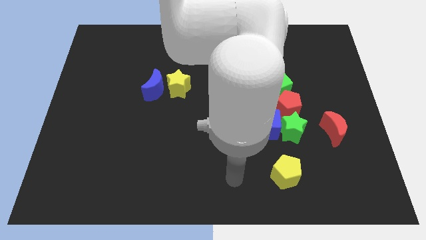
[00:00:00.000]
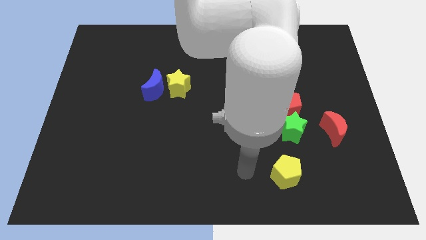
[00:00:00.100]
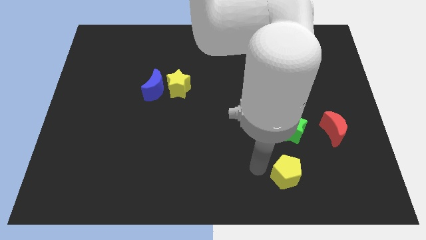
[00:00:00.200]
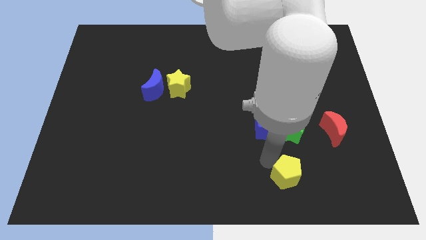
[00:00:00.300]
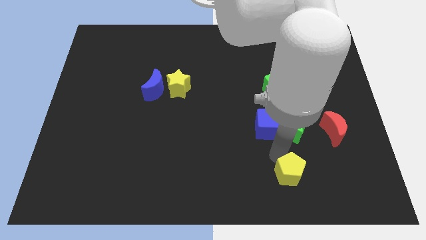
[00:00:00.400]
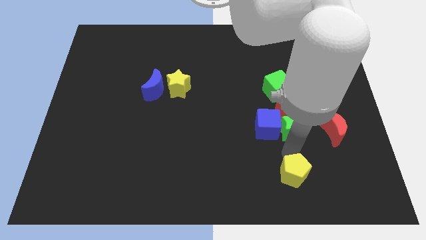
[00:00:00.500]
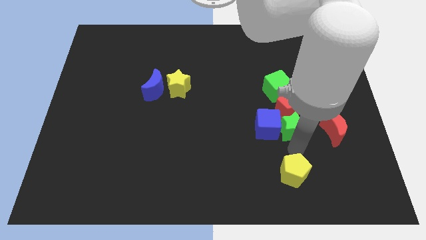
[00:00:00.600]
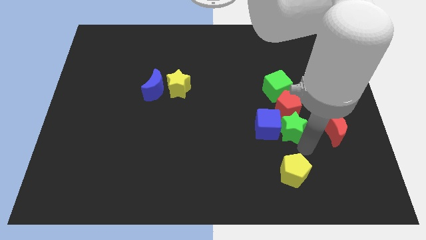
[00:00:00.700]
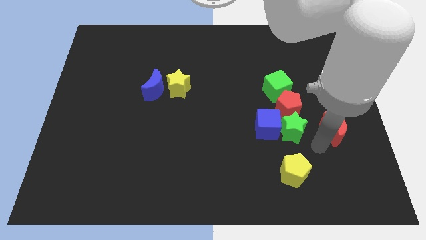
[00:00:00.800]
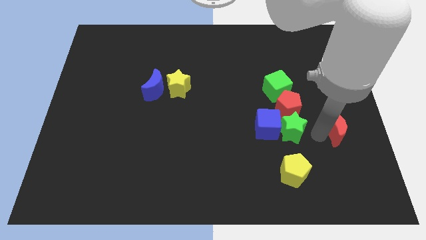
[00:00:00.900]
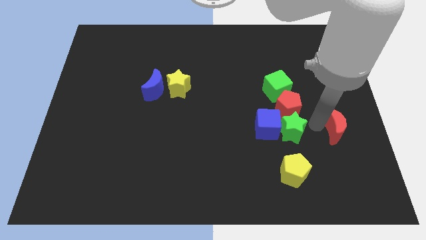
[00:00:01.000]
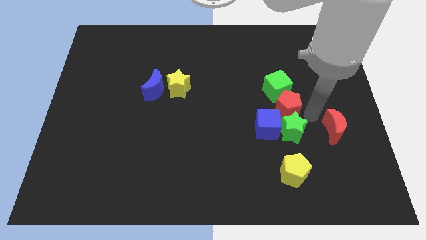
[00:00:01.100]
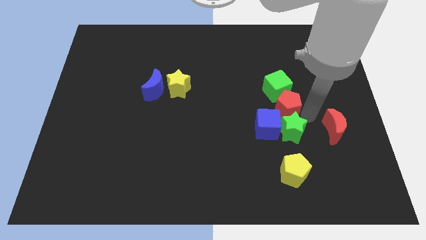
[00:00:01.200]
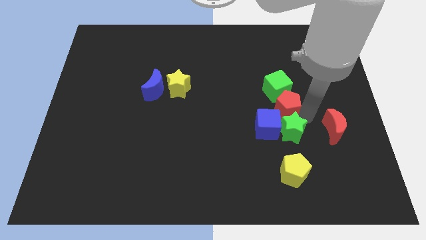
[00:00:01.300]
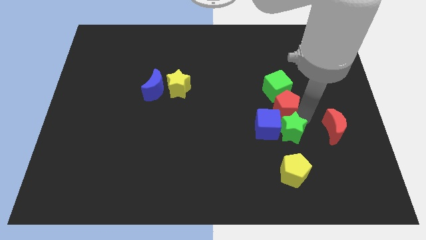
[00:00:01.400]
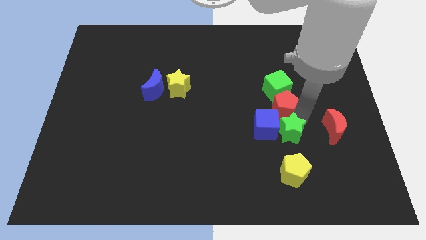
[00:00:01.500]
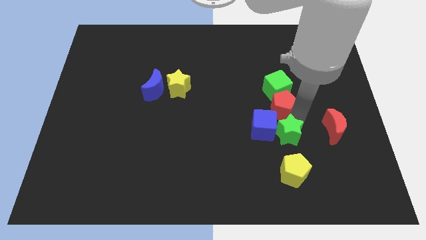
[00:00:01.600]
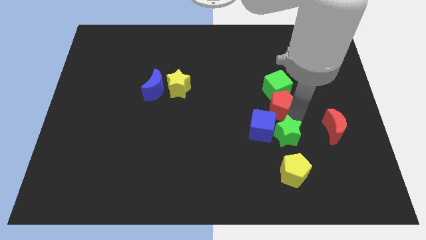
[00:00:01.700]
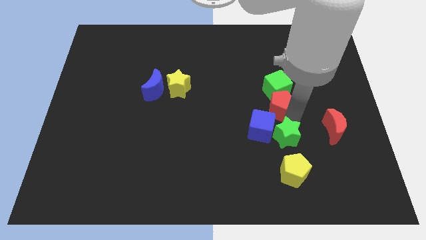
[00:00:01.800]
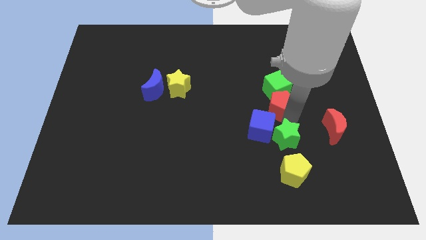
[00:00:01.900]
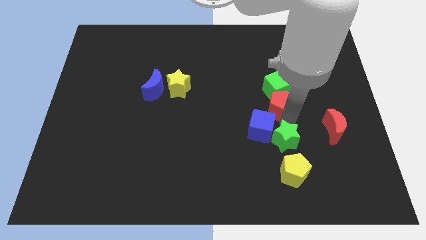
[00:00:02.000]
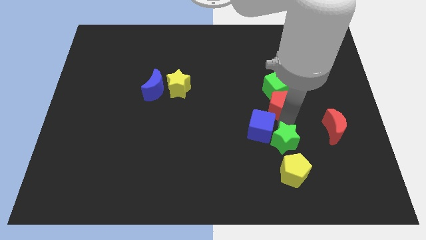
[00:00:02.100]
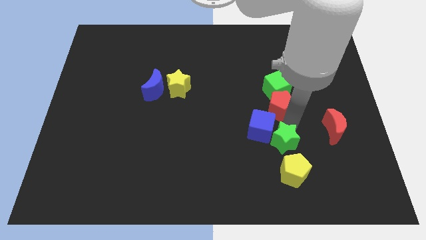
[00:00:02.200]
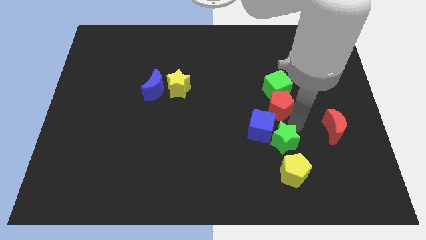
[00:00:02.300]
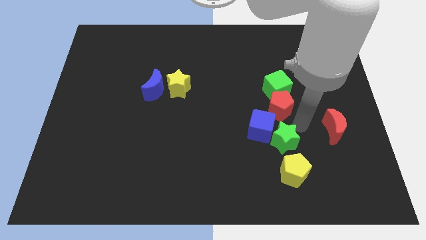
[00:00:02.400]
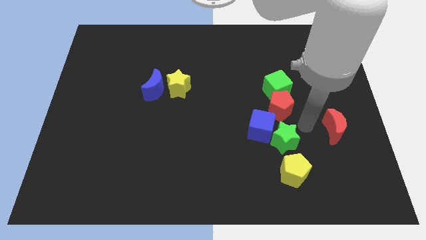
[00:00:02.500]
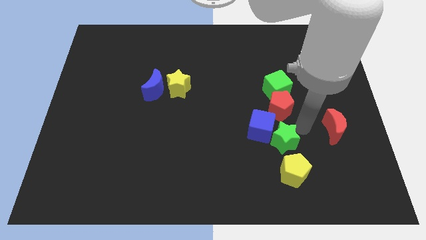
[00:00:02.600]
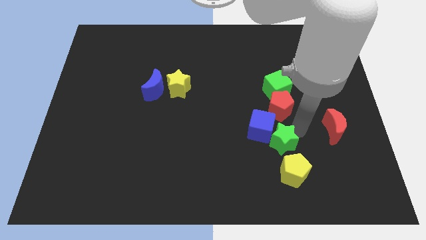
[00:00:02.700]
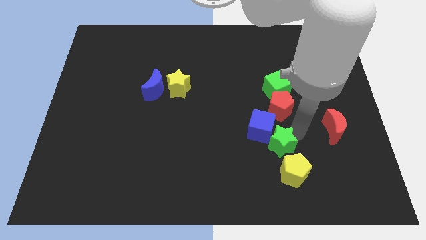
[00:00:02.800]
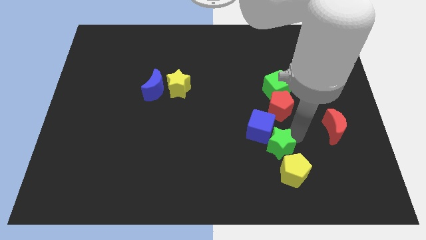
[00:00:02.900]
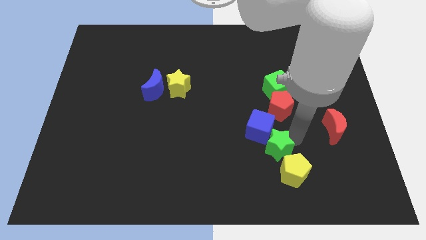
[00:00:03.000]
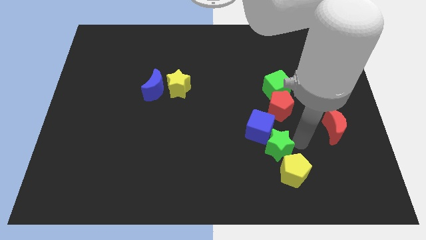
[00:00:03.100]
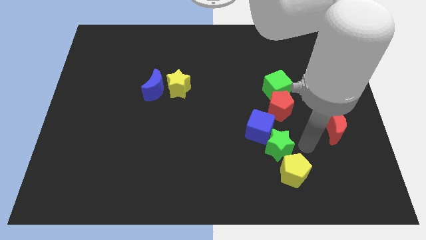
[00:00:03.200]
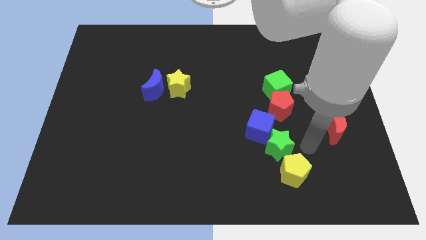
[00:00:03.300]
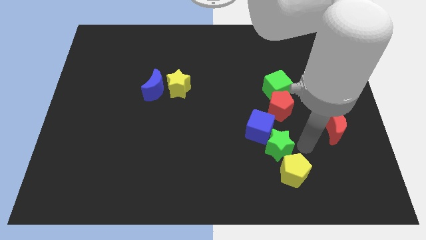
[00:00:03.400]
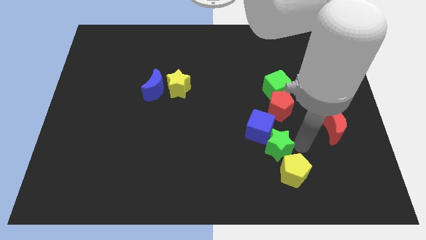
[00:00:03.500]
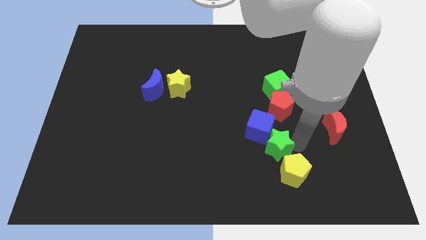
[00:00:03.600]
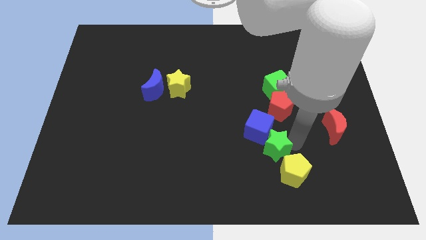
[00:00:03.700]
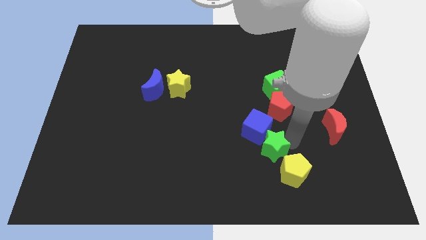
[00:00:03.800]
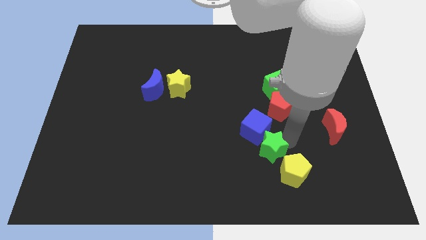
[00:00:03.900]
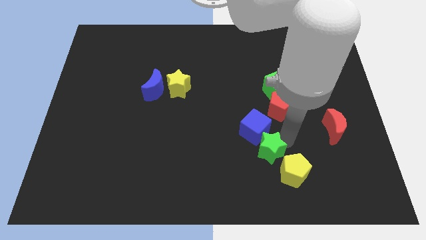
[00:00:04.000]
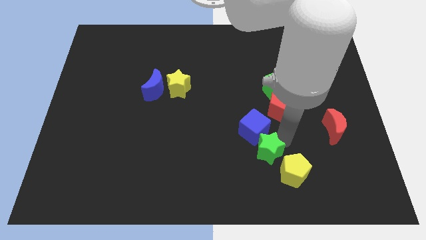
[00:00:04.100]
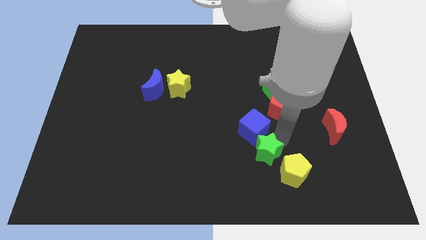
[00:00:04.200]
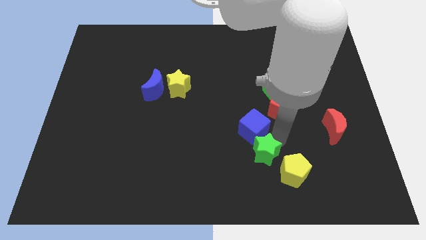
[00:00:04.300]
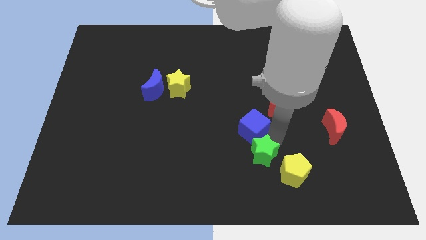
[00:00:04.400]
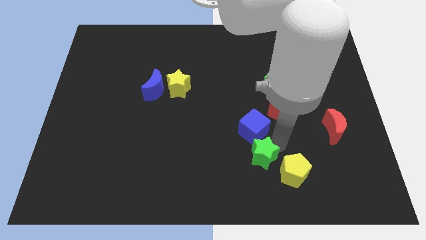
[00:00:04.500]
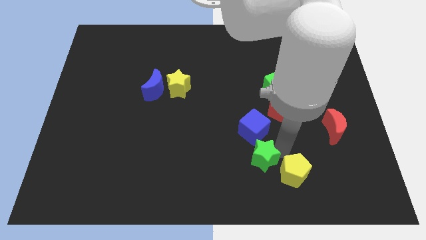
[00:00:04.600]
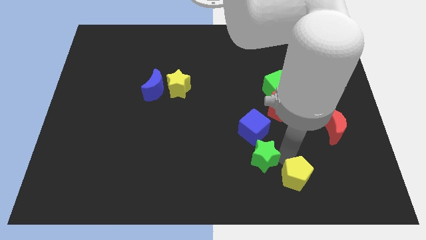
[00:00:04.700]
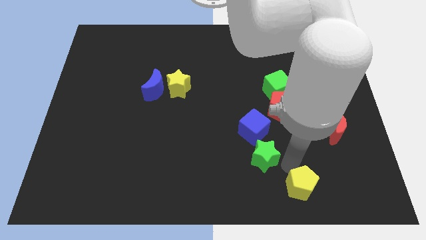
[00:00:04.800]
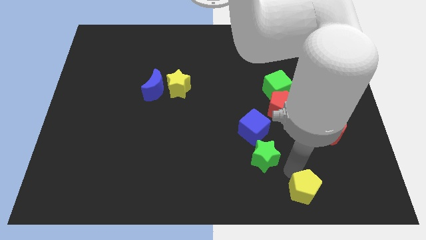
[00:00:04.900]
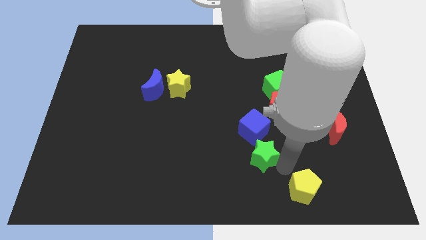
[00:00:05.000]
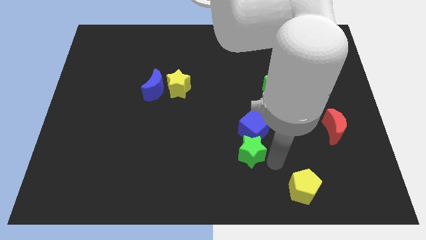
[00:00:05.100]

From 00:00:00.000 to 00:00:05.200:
slide the green star a little bit to the left

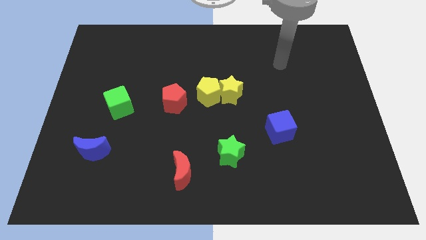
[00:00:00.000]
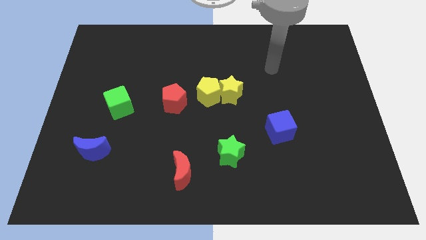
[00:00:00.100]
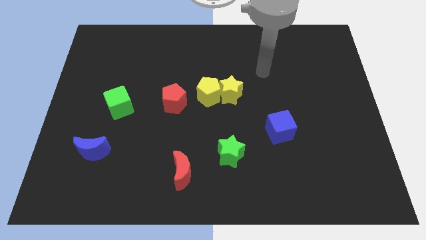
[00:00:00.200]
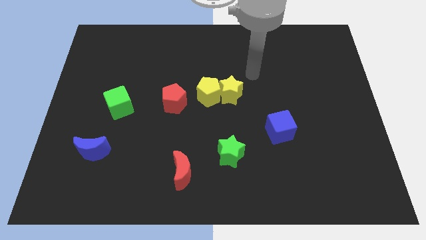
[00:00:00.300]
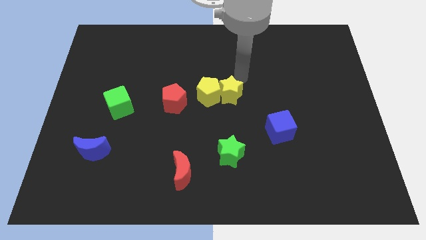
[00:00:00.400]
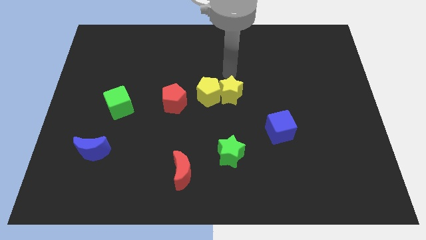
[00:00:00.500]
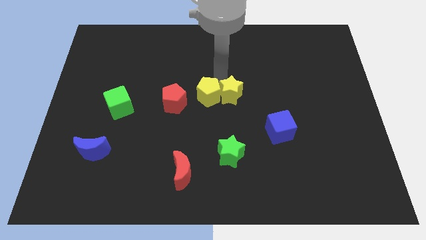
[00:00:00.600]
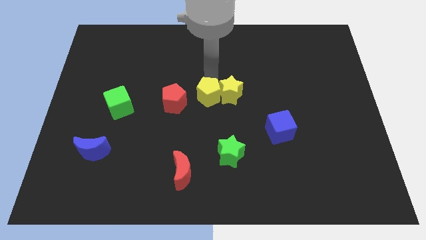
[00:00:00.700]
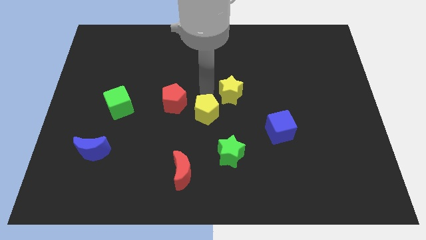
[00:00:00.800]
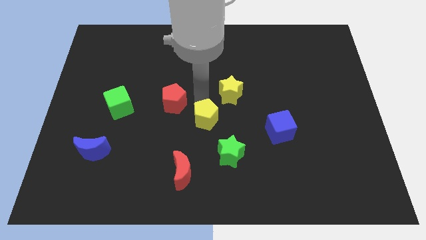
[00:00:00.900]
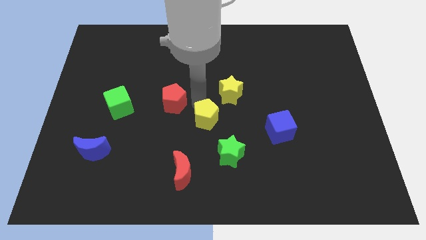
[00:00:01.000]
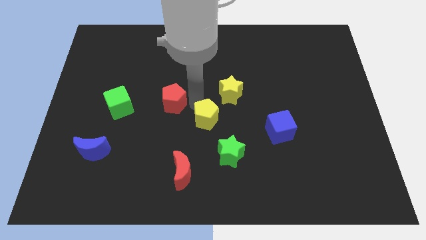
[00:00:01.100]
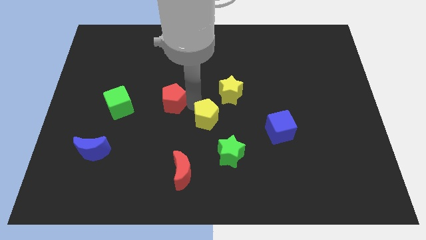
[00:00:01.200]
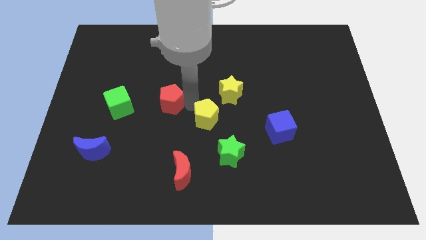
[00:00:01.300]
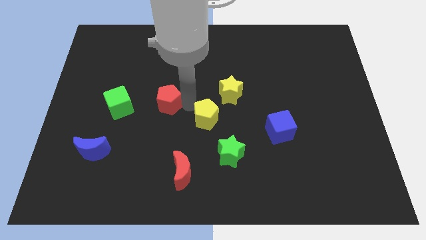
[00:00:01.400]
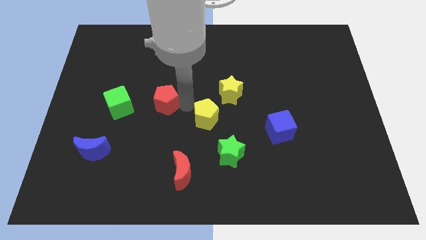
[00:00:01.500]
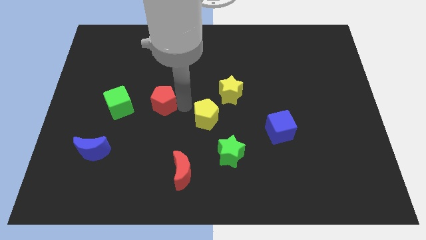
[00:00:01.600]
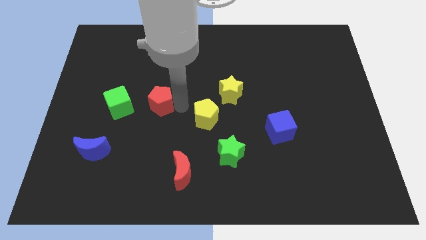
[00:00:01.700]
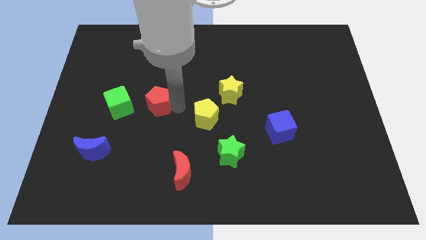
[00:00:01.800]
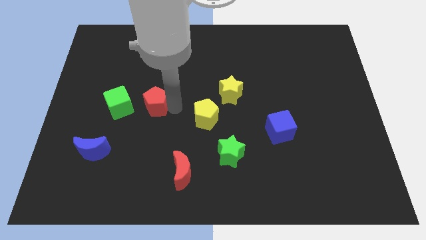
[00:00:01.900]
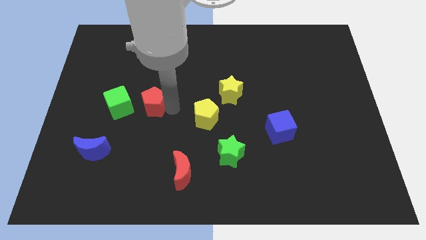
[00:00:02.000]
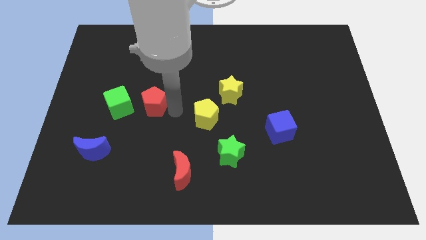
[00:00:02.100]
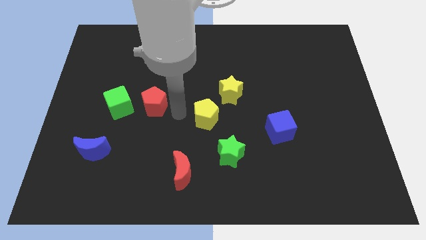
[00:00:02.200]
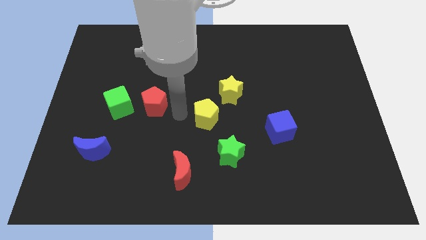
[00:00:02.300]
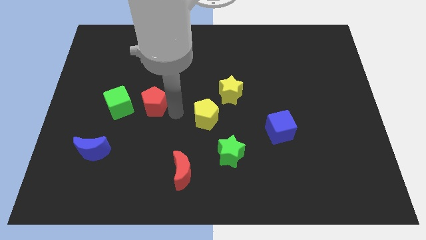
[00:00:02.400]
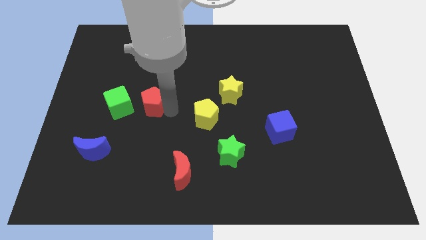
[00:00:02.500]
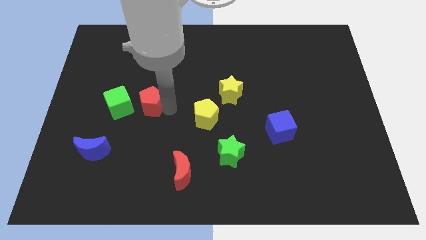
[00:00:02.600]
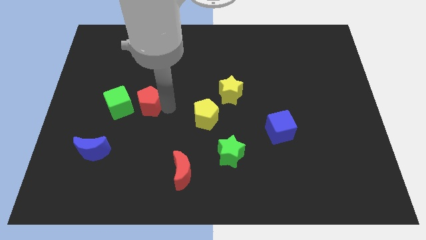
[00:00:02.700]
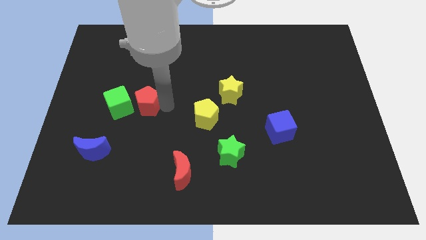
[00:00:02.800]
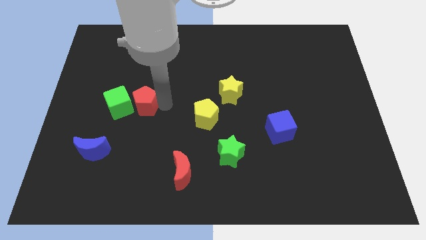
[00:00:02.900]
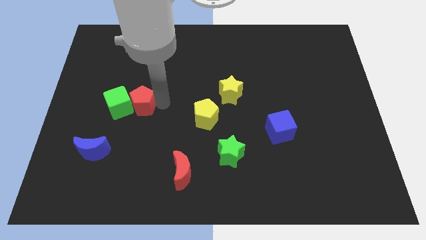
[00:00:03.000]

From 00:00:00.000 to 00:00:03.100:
move the red pentagon left slightly
